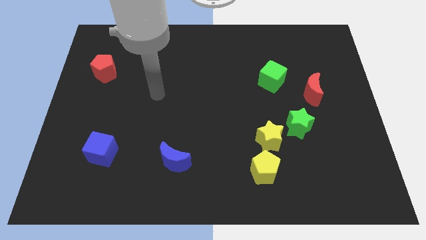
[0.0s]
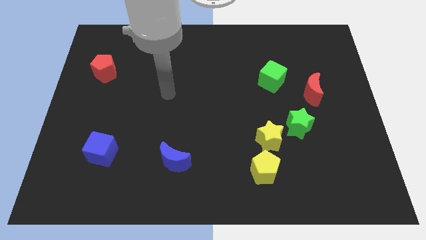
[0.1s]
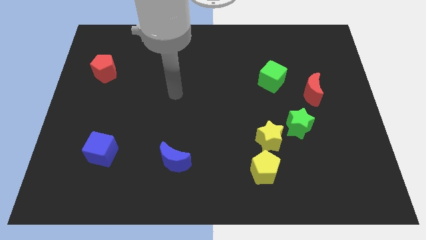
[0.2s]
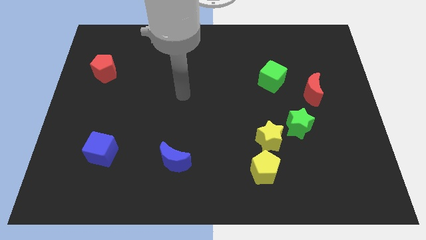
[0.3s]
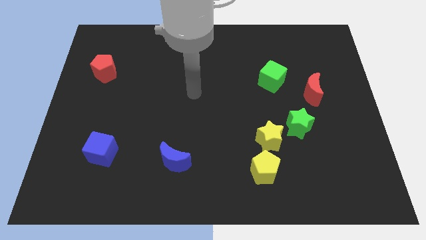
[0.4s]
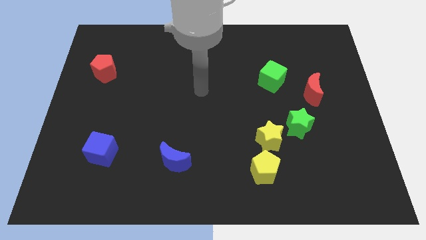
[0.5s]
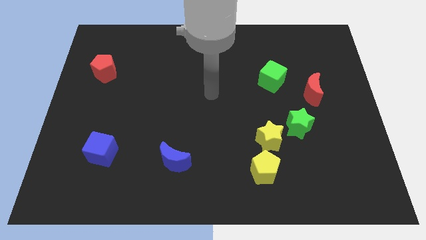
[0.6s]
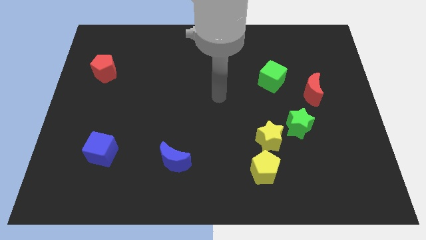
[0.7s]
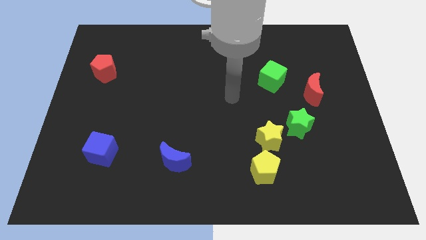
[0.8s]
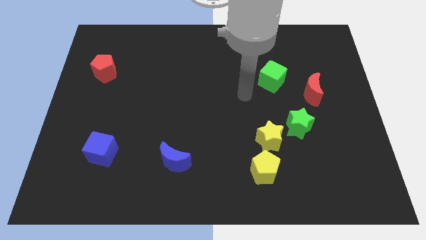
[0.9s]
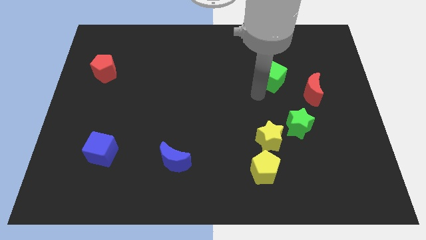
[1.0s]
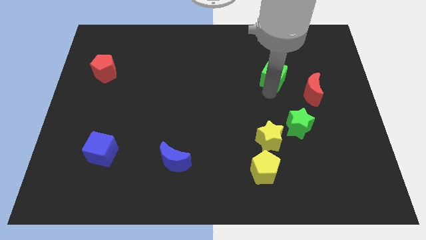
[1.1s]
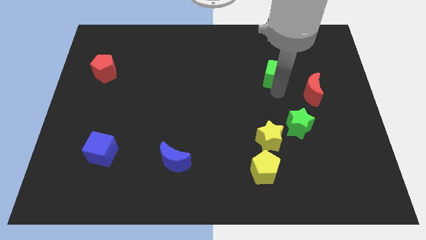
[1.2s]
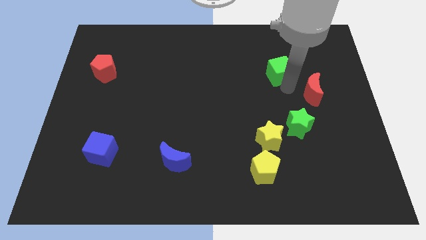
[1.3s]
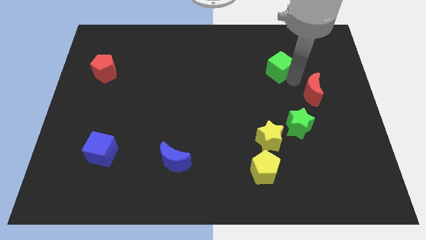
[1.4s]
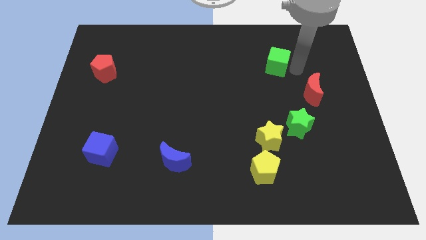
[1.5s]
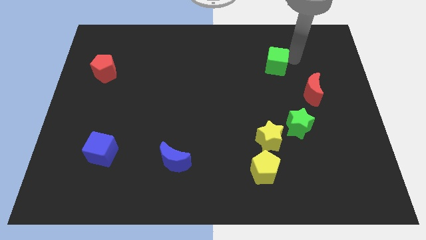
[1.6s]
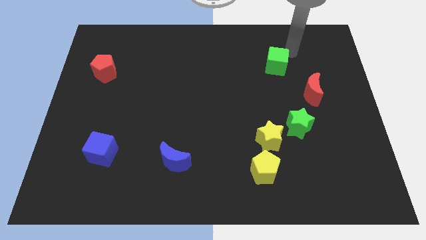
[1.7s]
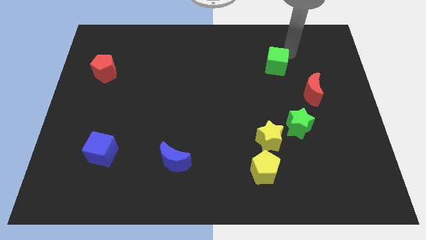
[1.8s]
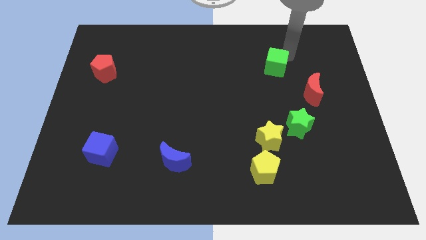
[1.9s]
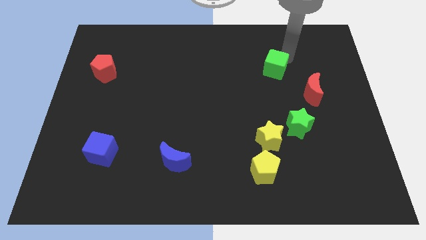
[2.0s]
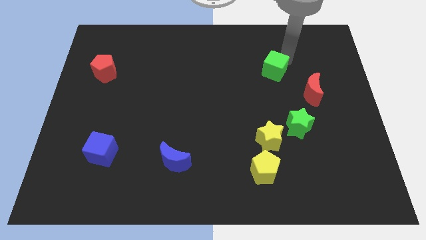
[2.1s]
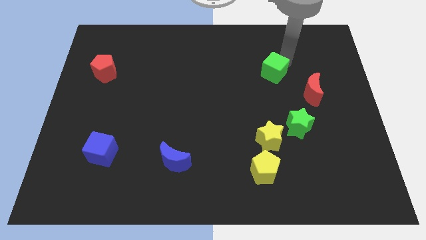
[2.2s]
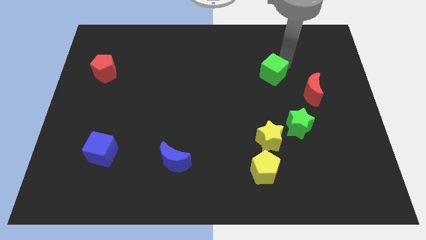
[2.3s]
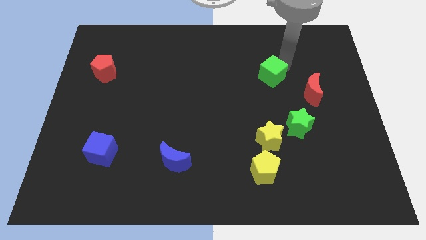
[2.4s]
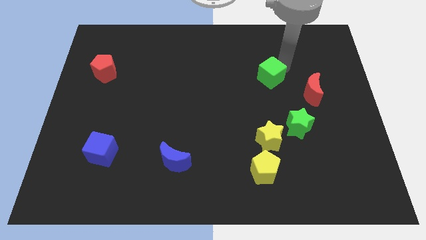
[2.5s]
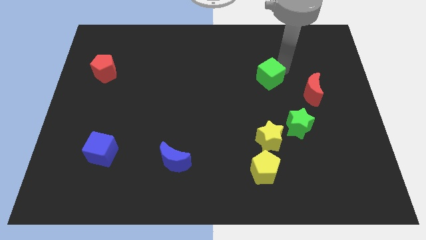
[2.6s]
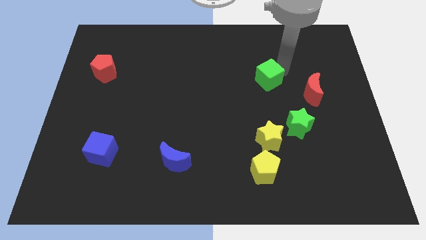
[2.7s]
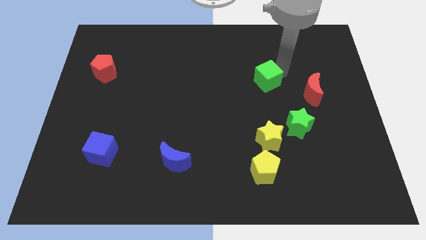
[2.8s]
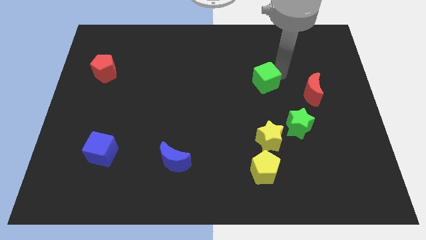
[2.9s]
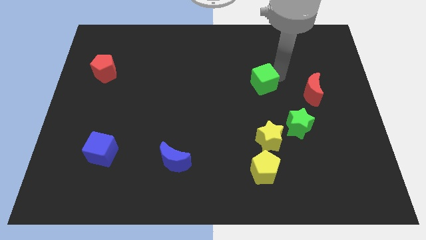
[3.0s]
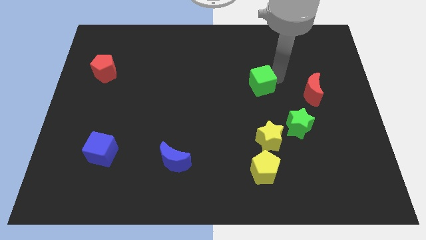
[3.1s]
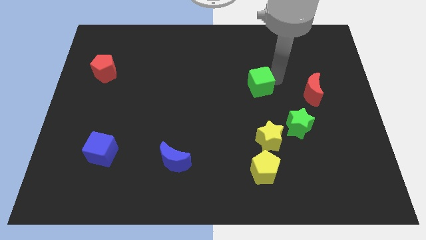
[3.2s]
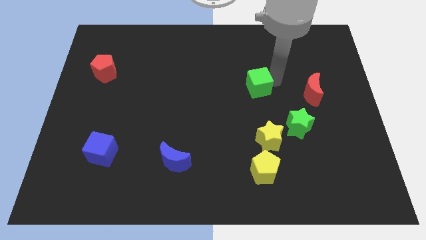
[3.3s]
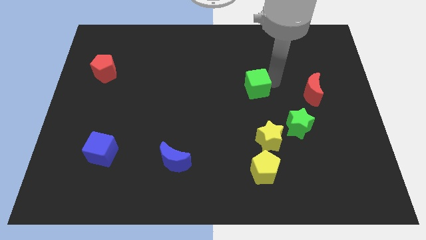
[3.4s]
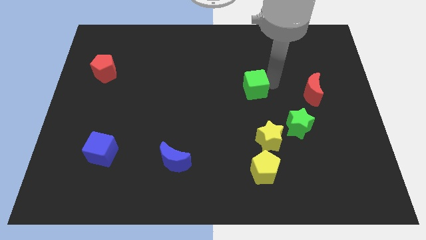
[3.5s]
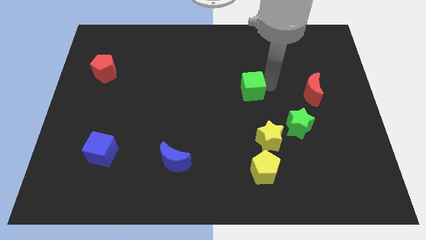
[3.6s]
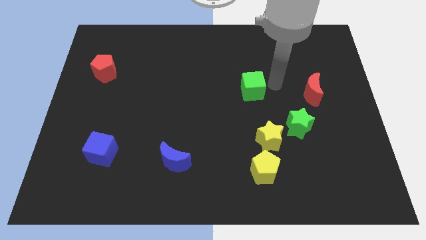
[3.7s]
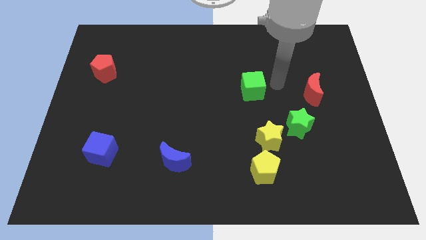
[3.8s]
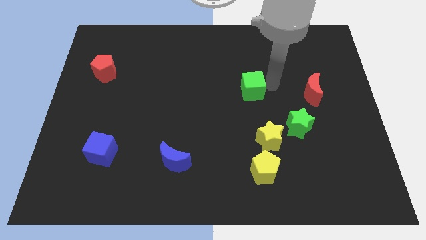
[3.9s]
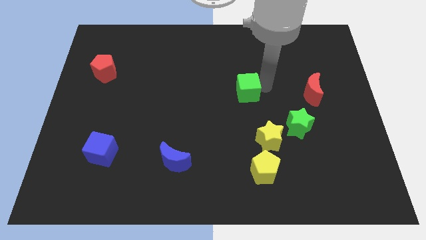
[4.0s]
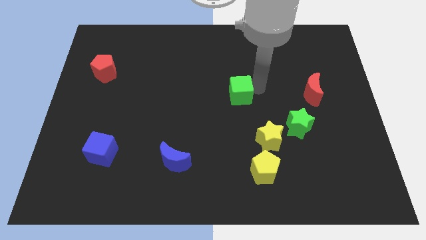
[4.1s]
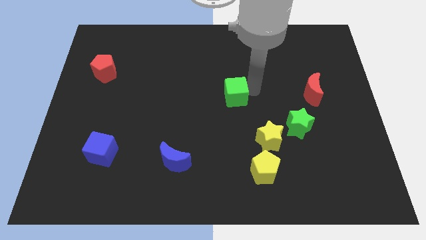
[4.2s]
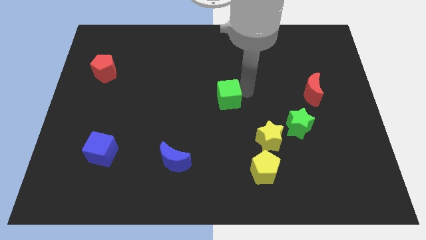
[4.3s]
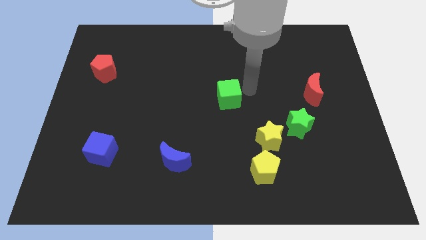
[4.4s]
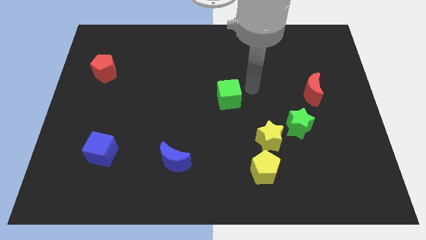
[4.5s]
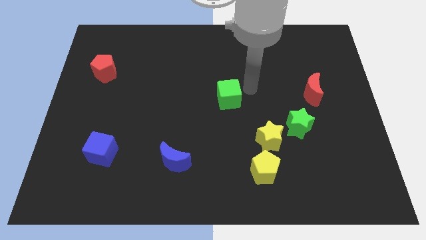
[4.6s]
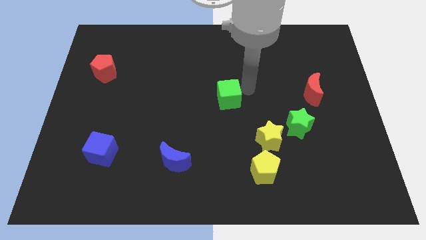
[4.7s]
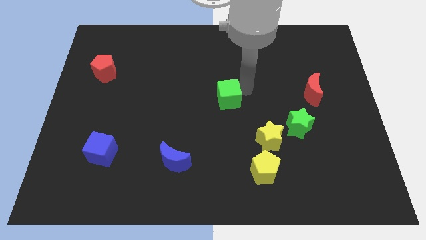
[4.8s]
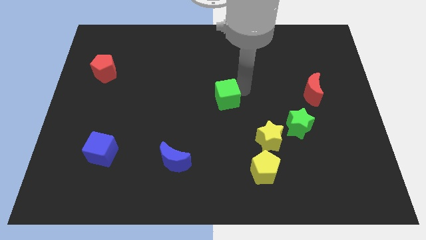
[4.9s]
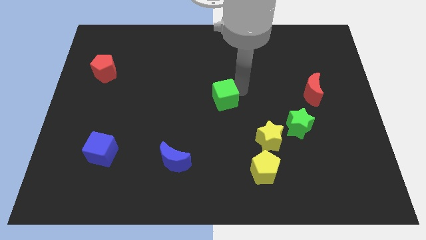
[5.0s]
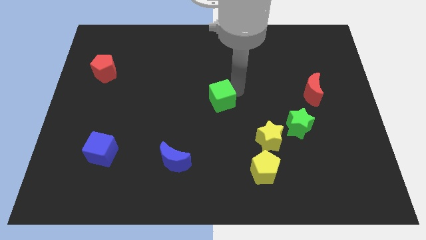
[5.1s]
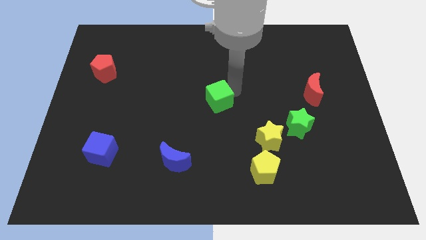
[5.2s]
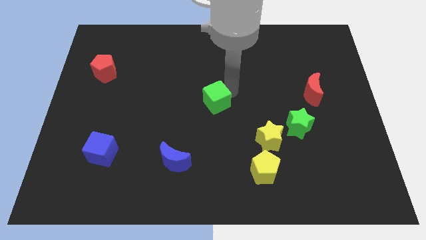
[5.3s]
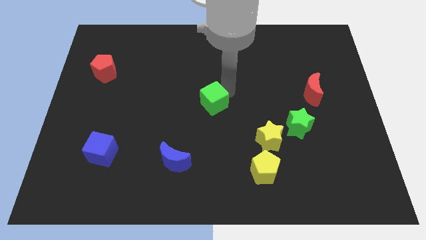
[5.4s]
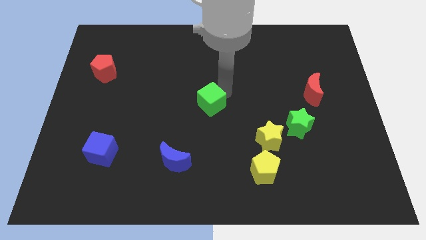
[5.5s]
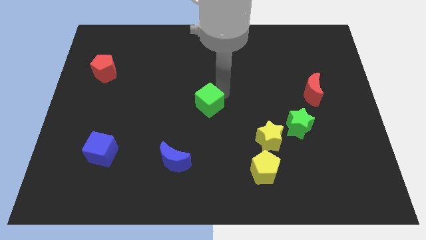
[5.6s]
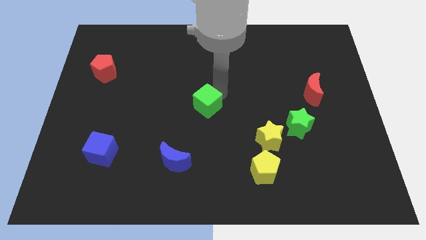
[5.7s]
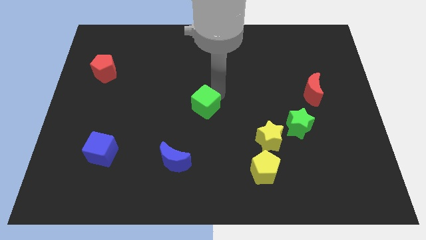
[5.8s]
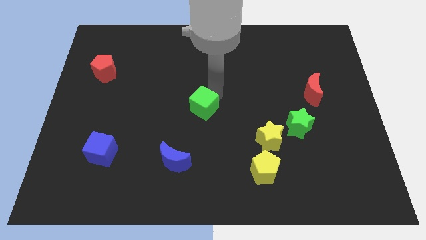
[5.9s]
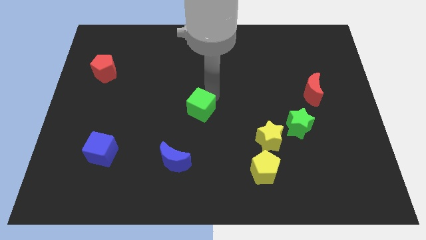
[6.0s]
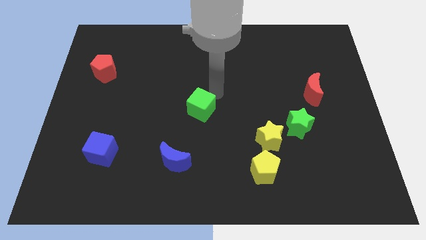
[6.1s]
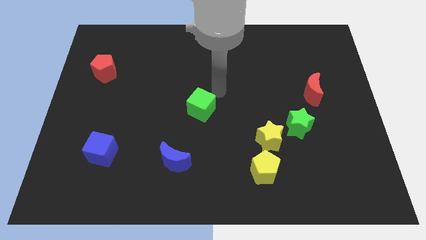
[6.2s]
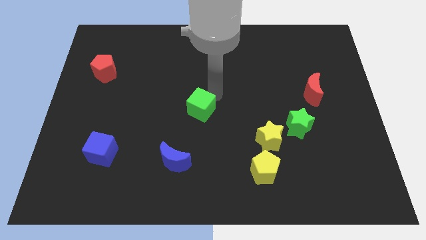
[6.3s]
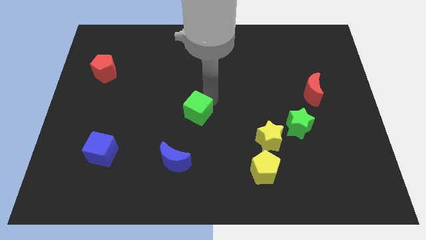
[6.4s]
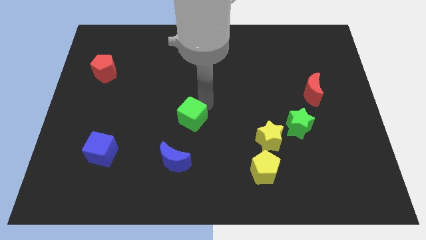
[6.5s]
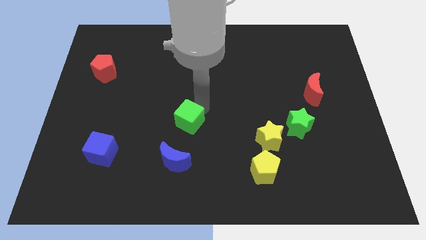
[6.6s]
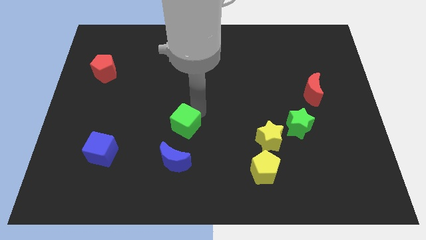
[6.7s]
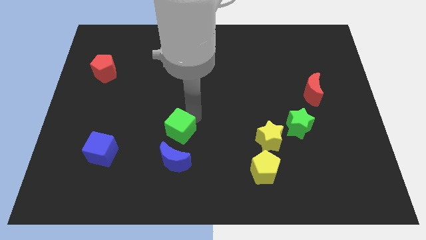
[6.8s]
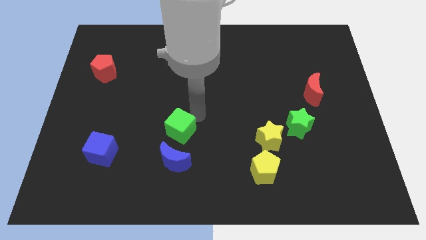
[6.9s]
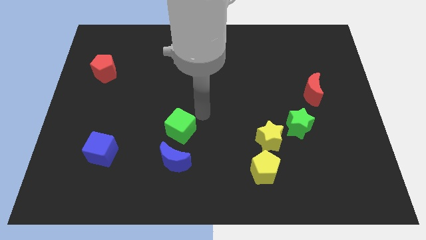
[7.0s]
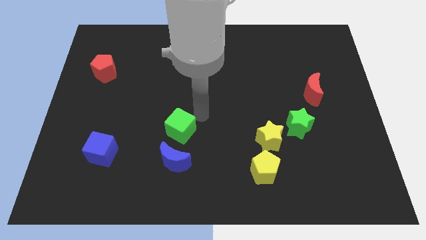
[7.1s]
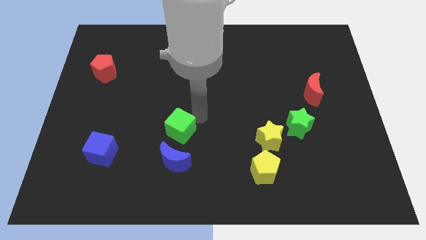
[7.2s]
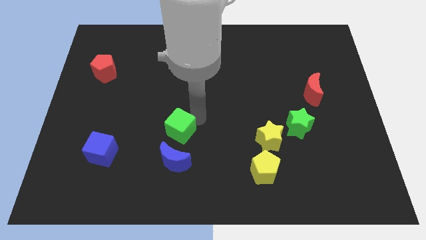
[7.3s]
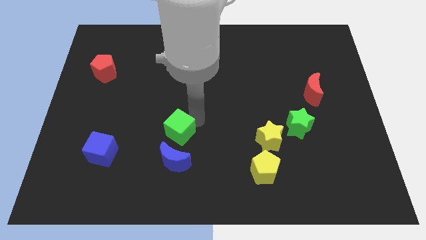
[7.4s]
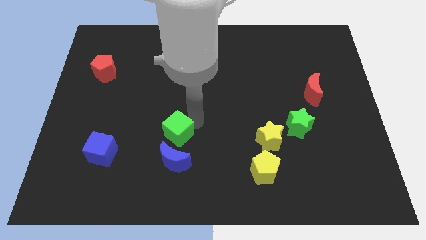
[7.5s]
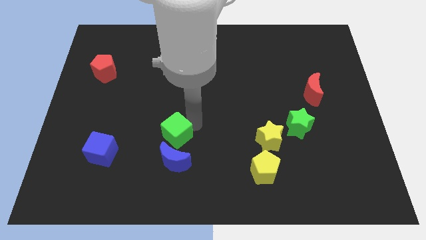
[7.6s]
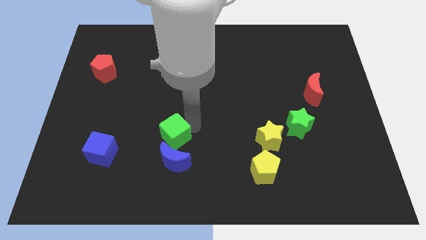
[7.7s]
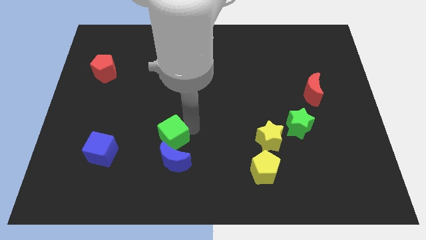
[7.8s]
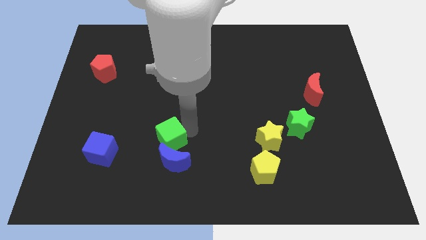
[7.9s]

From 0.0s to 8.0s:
move the green cube just right of the blue cube
